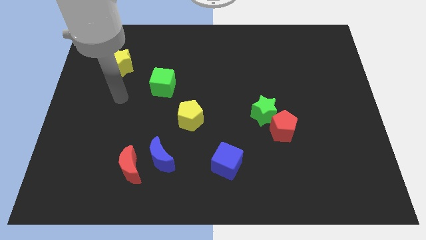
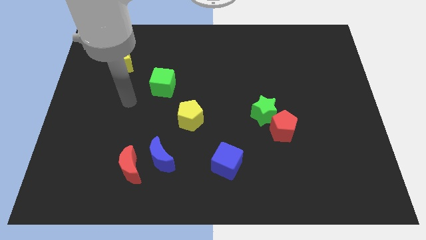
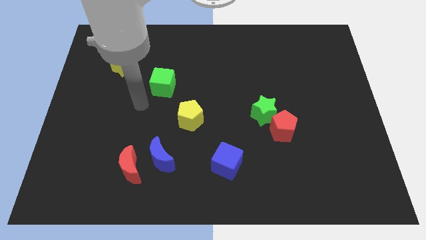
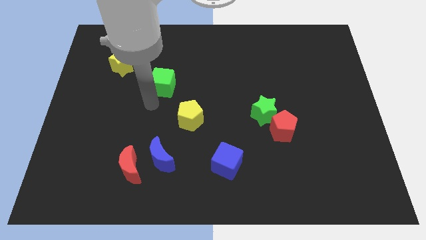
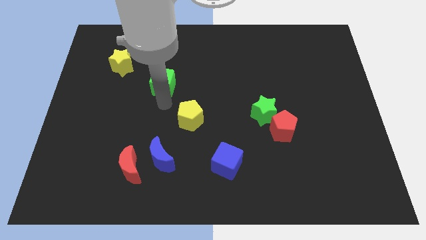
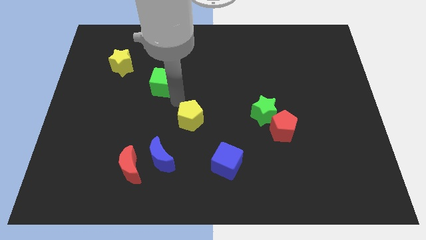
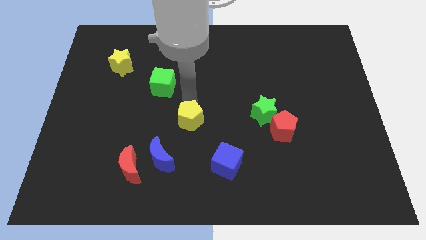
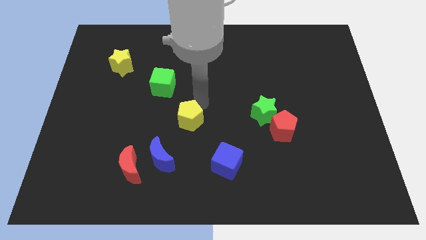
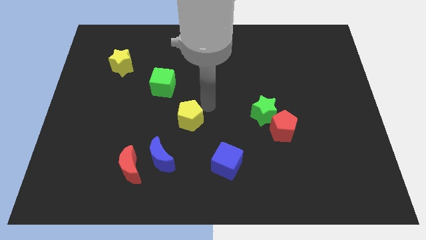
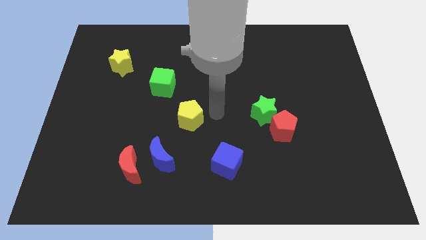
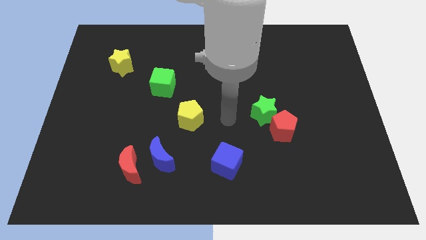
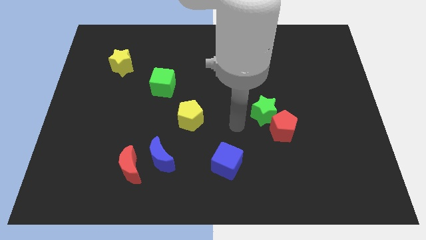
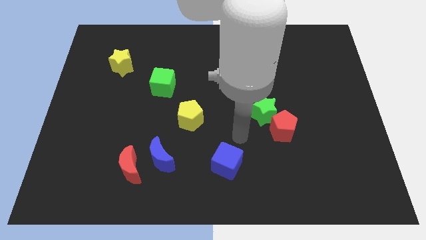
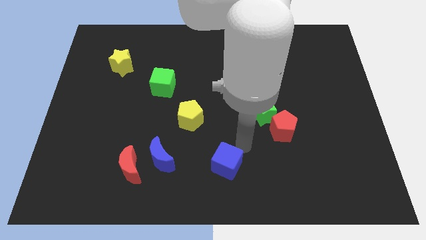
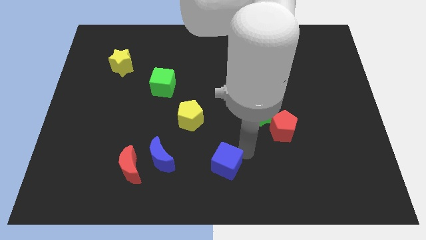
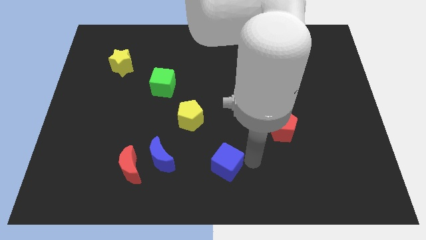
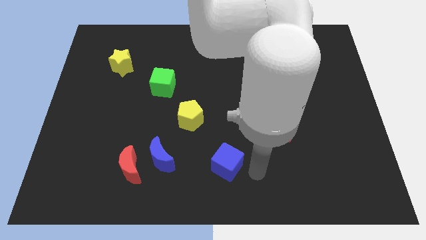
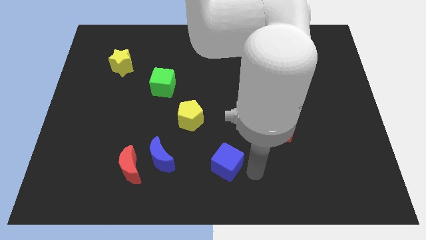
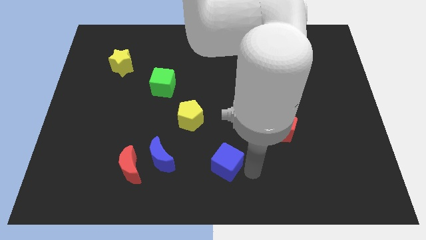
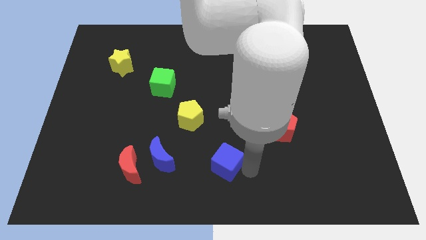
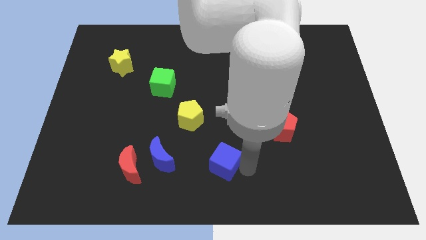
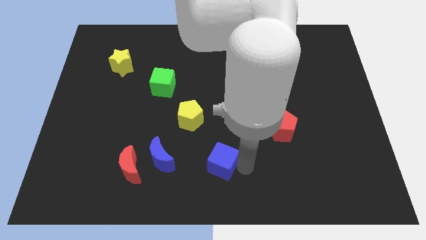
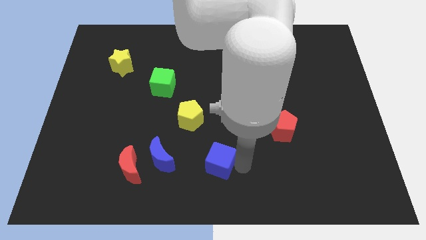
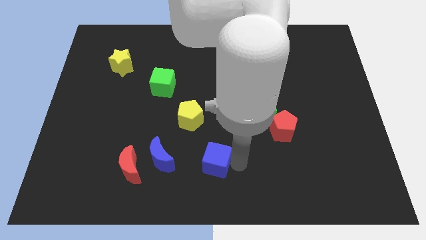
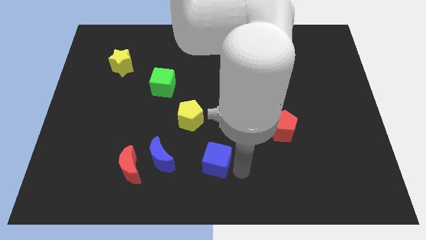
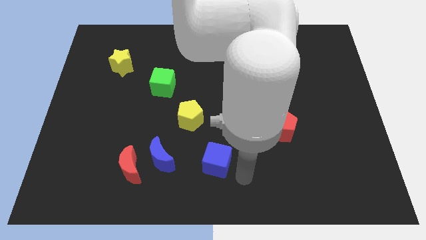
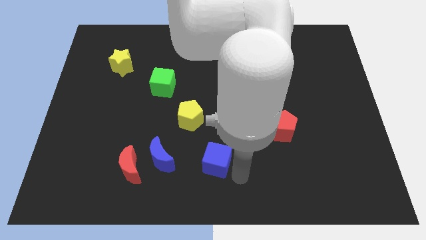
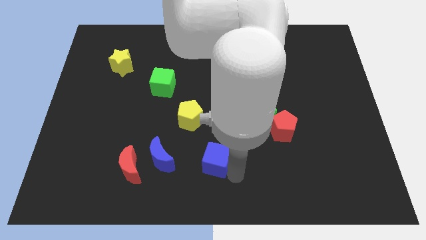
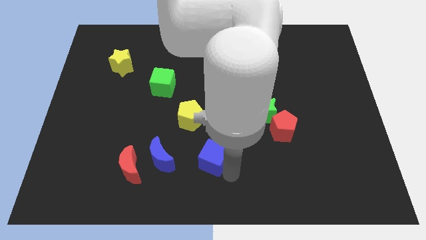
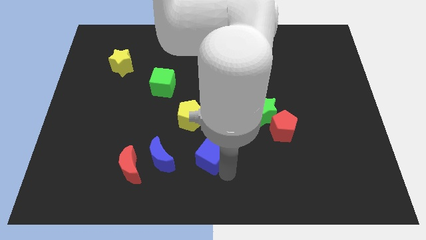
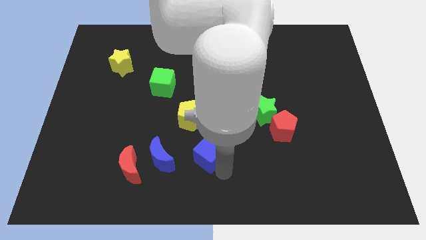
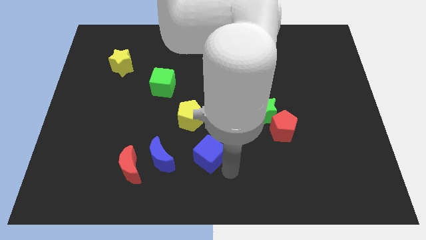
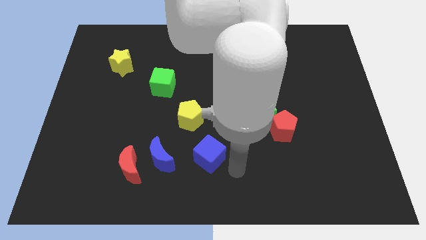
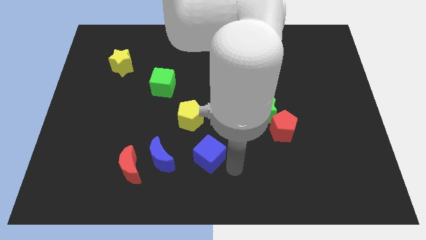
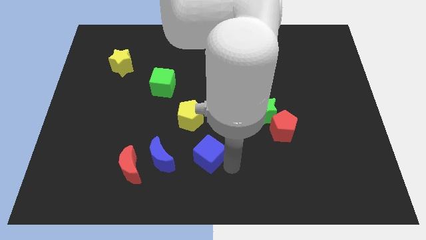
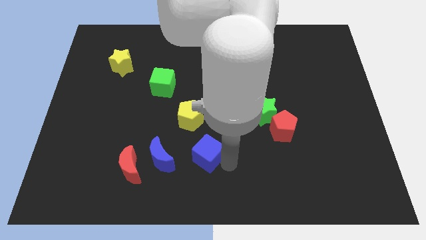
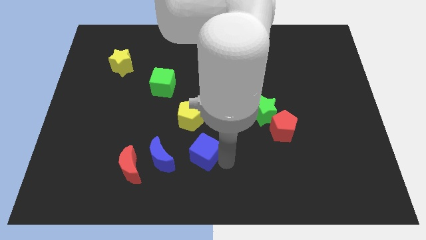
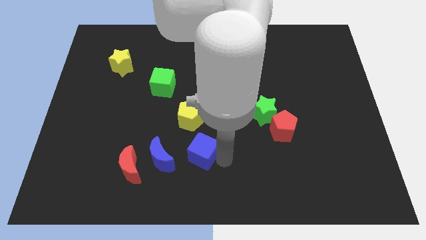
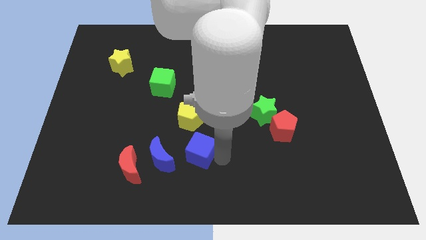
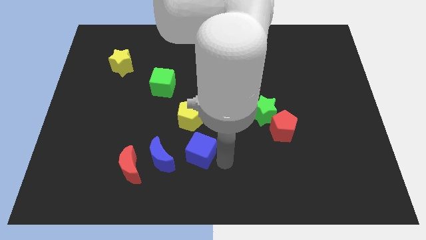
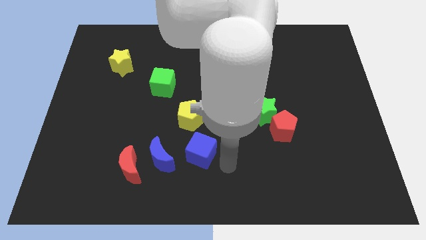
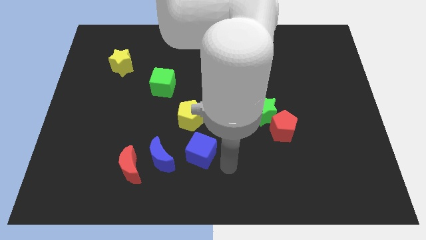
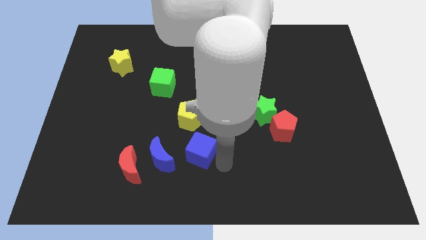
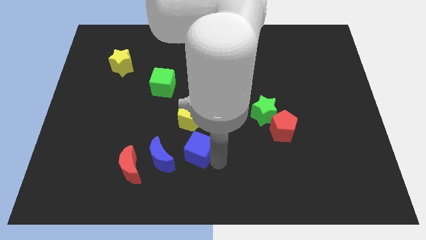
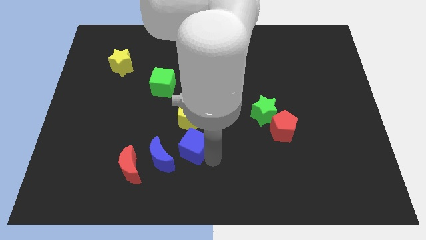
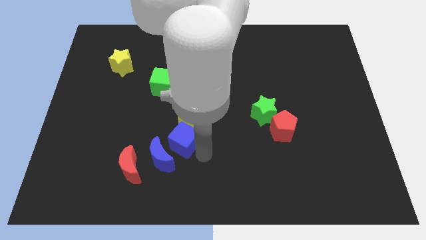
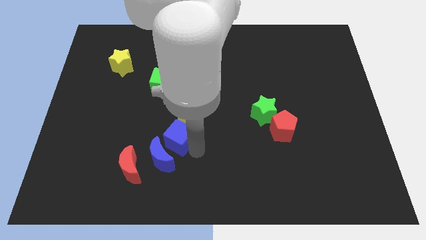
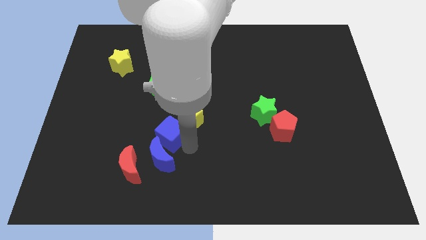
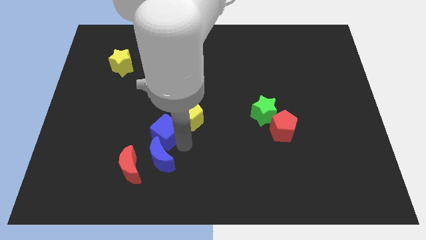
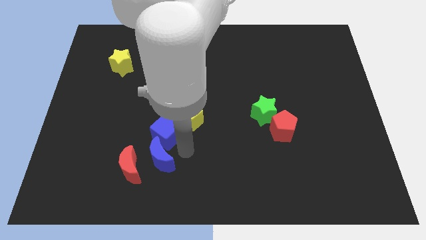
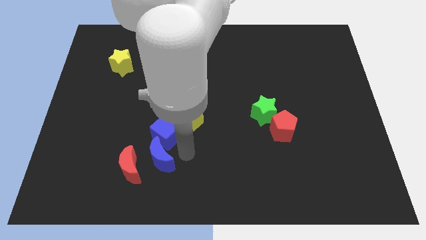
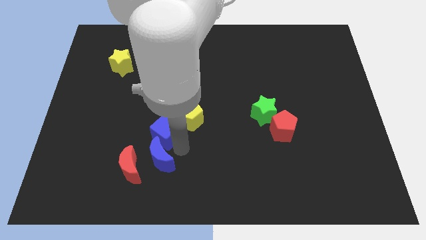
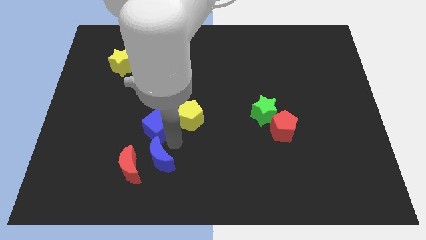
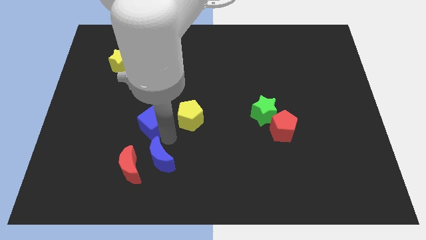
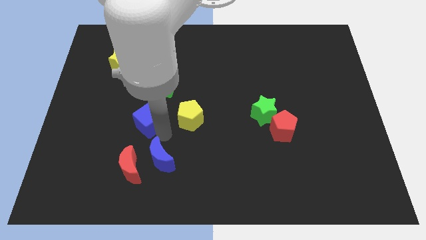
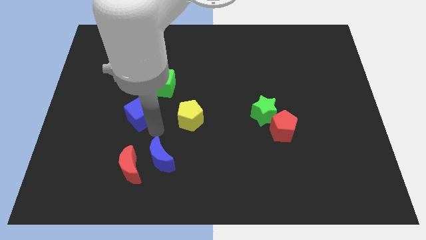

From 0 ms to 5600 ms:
move the blue cube upwards and to the left

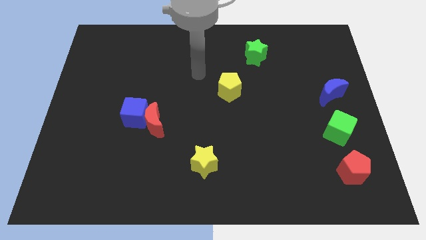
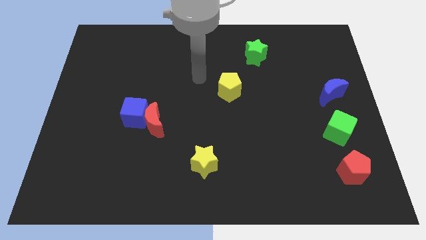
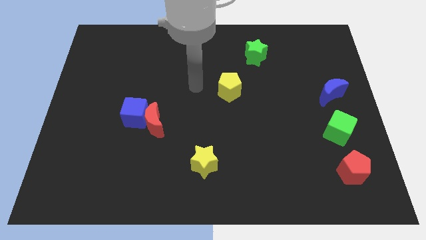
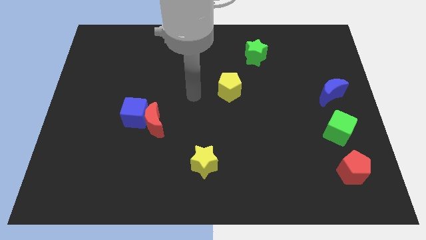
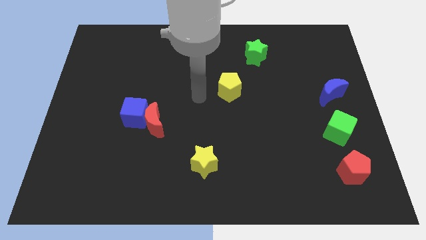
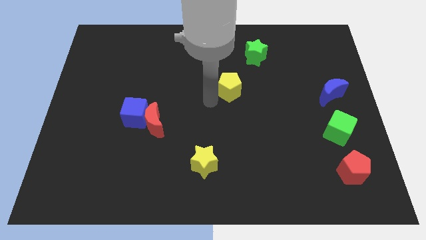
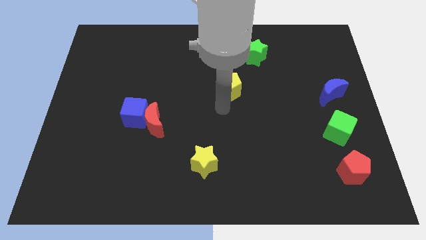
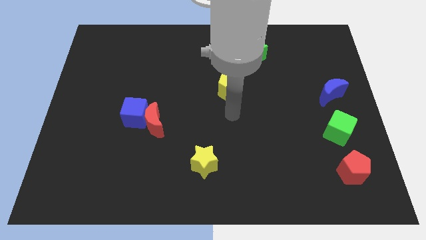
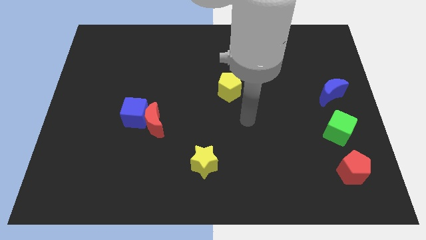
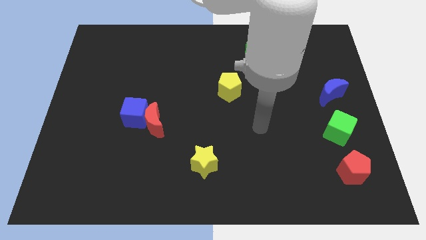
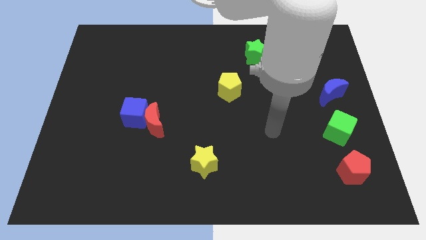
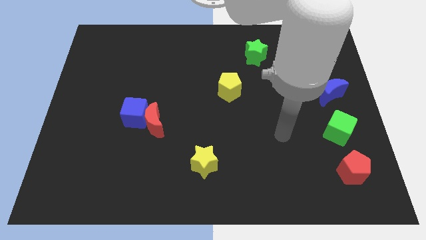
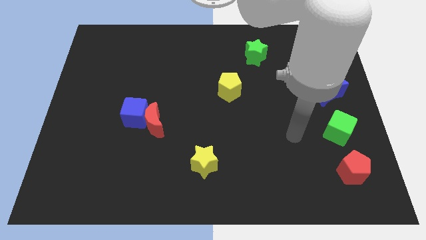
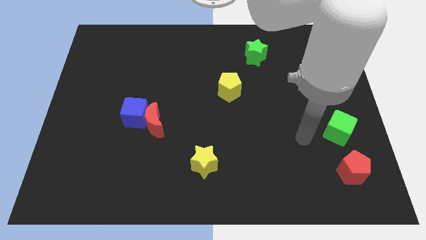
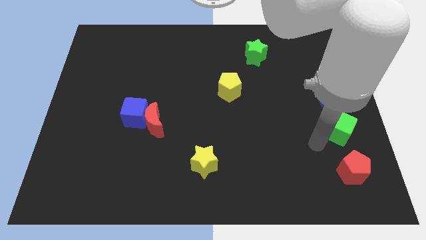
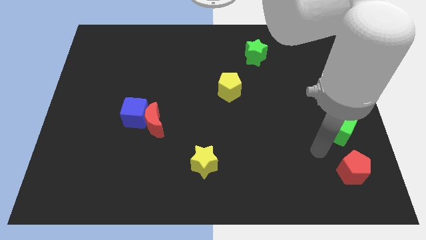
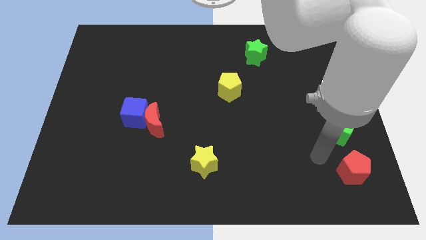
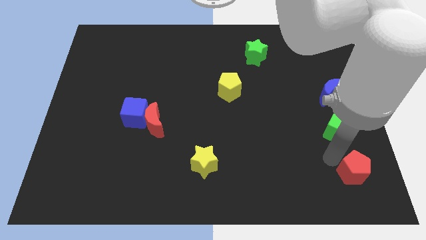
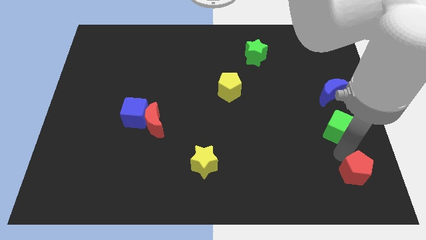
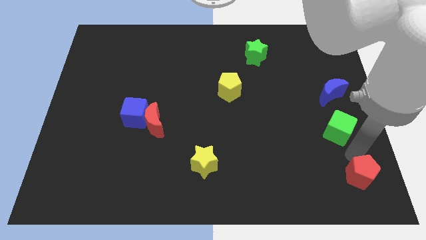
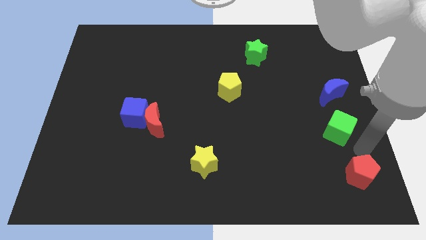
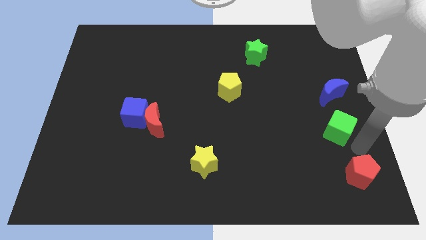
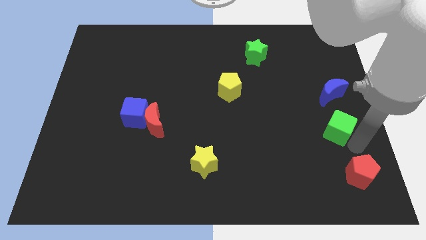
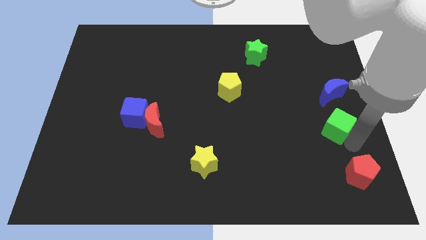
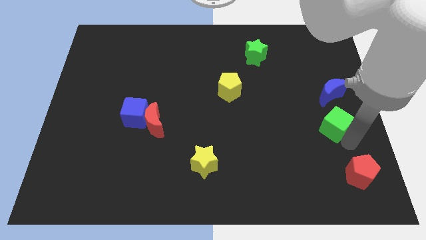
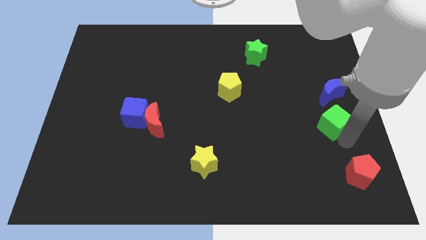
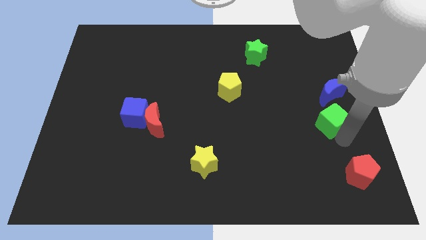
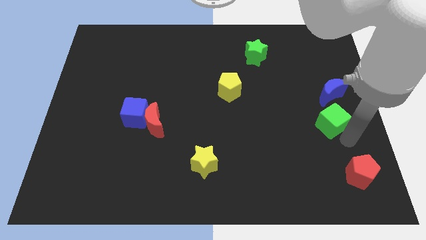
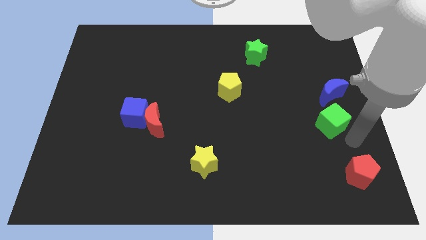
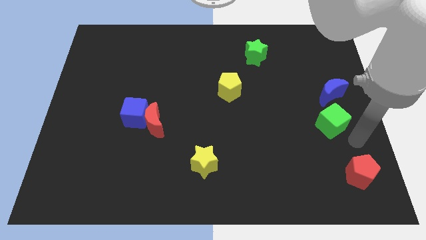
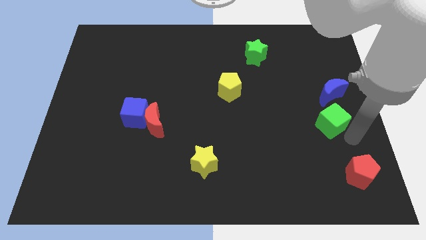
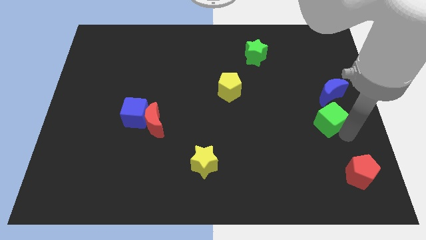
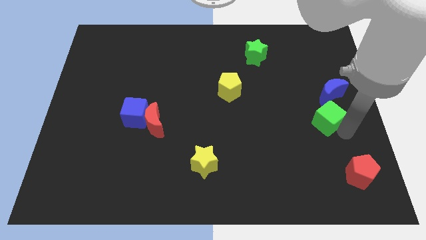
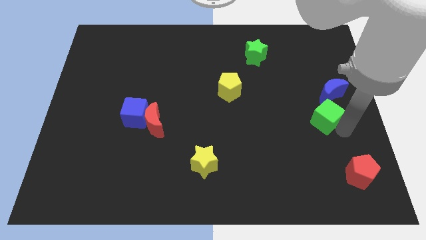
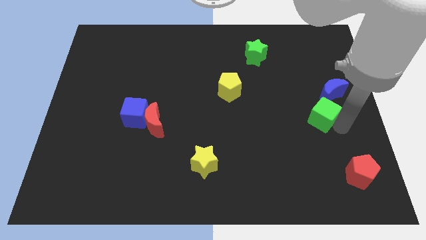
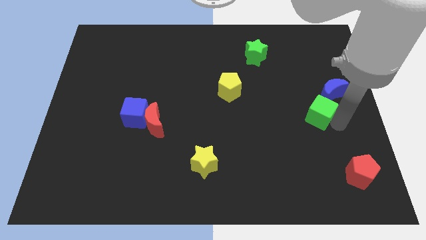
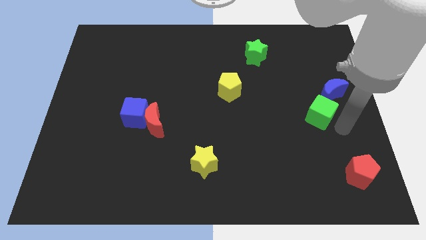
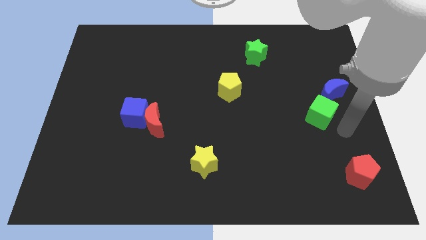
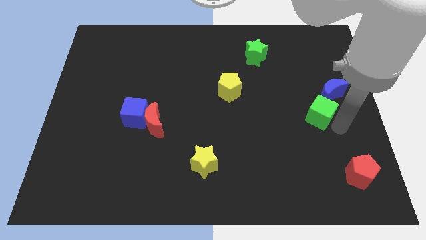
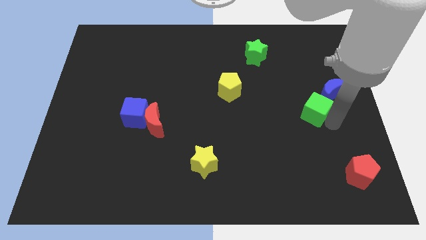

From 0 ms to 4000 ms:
slide the green cube upwards and then left a bit
